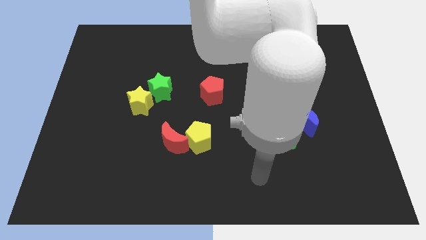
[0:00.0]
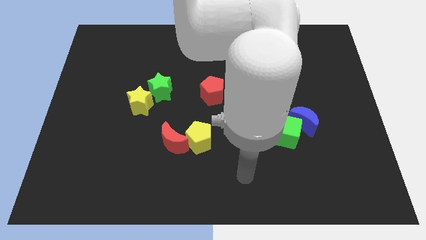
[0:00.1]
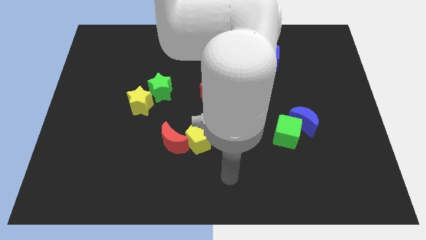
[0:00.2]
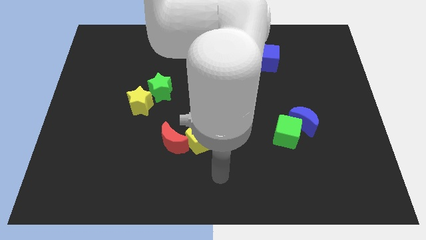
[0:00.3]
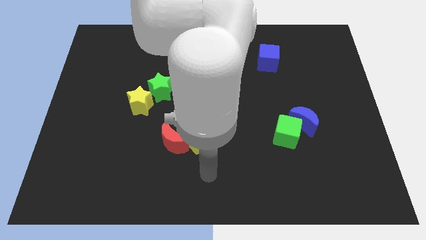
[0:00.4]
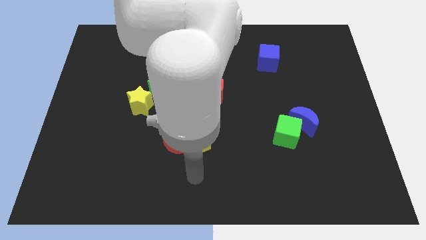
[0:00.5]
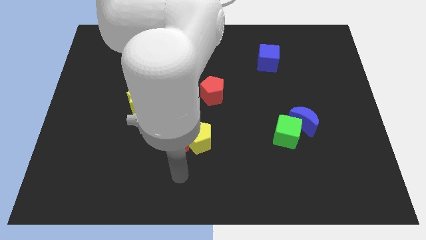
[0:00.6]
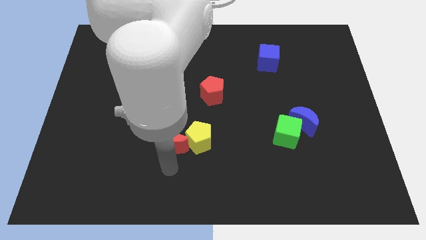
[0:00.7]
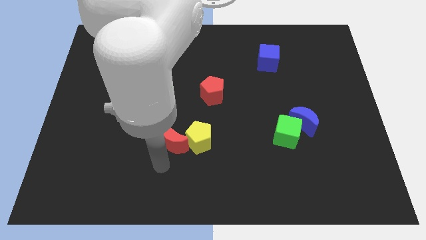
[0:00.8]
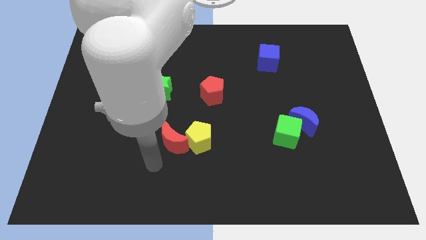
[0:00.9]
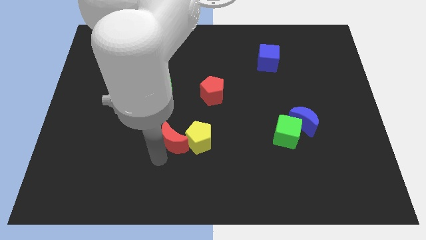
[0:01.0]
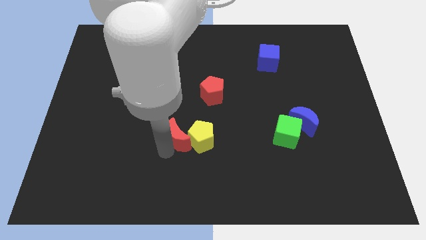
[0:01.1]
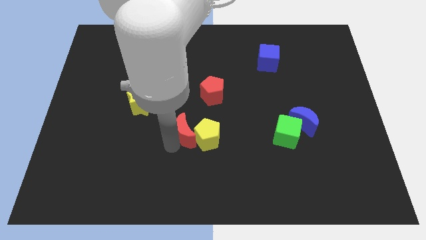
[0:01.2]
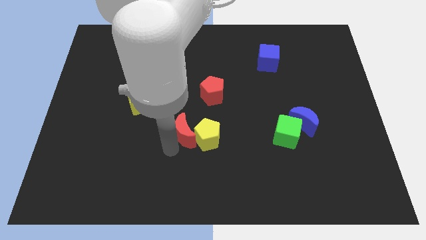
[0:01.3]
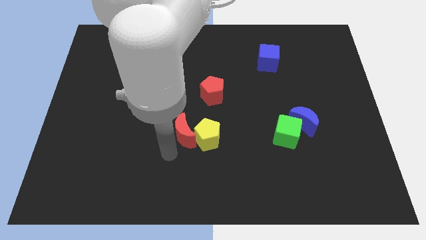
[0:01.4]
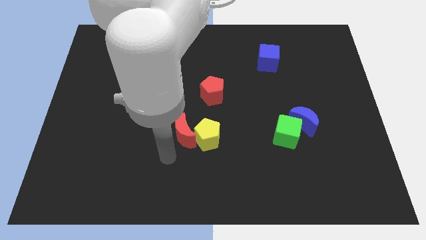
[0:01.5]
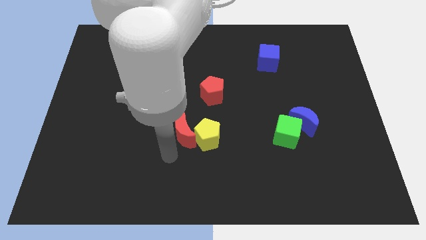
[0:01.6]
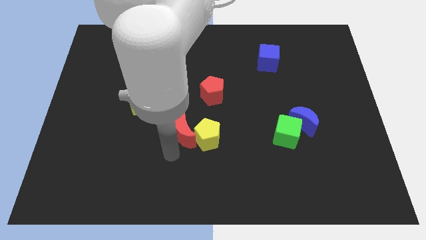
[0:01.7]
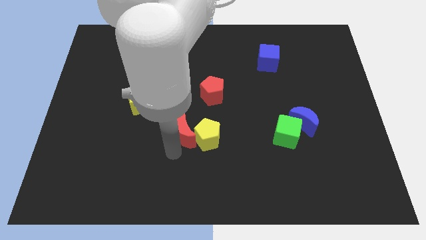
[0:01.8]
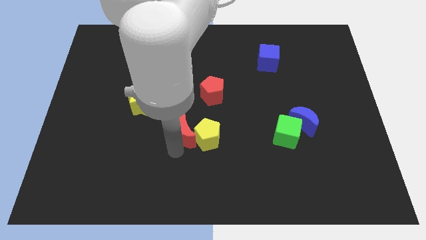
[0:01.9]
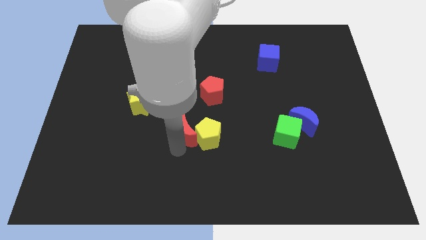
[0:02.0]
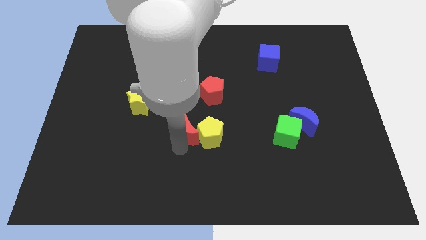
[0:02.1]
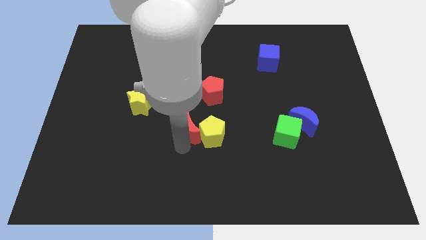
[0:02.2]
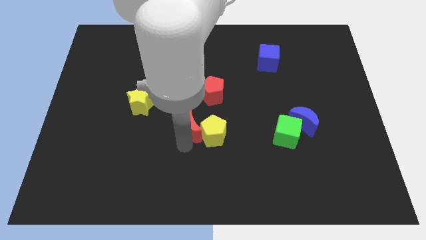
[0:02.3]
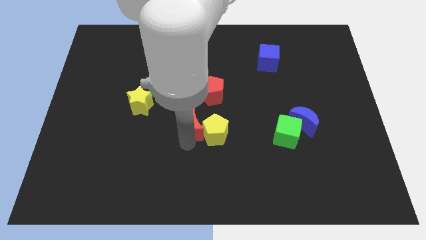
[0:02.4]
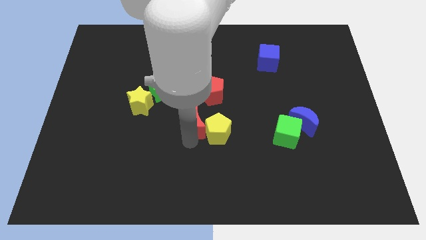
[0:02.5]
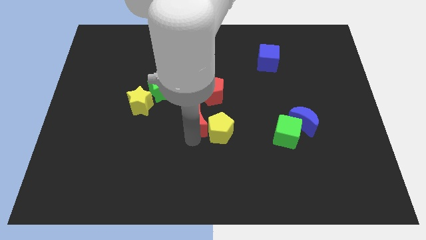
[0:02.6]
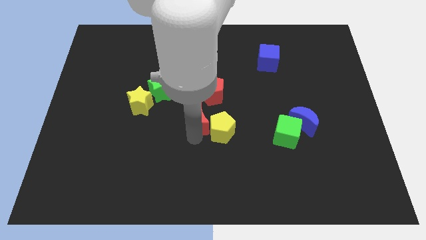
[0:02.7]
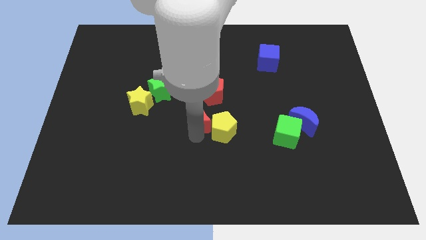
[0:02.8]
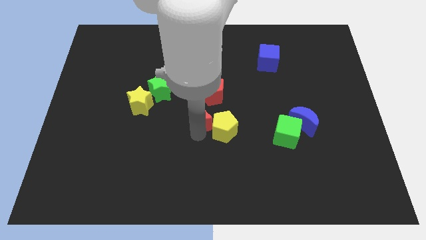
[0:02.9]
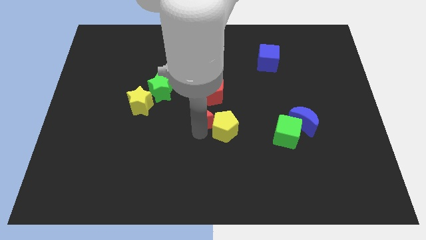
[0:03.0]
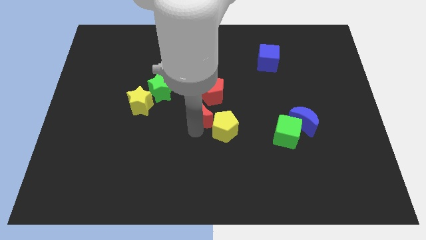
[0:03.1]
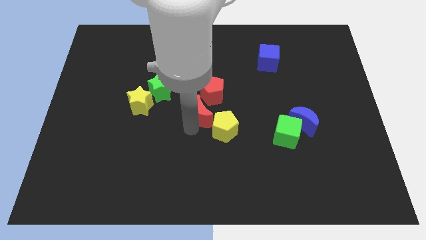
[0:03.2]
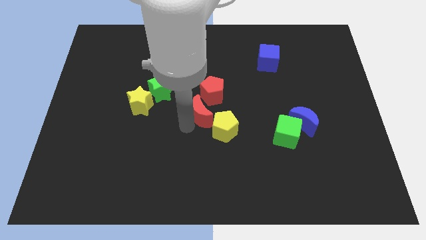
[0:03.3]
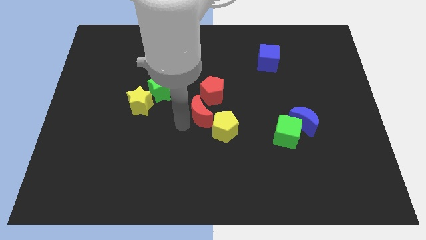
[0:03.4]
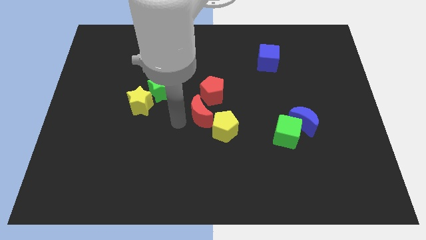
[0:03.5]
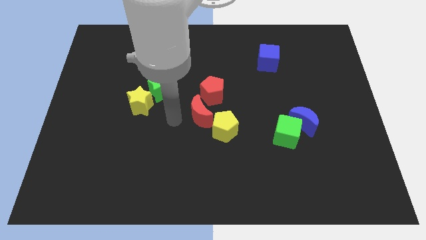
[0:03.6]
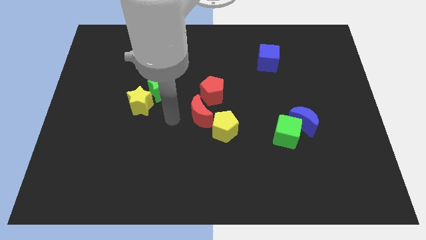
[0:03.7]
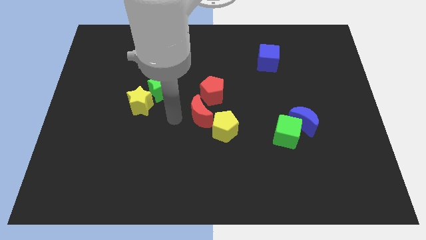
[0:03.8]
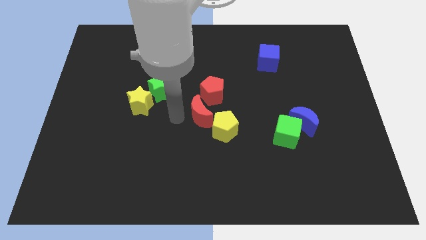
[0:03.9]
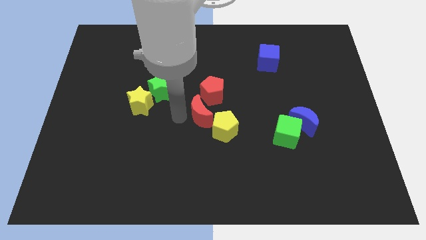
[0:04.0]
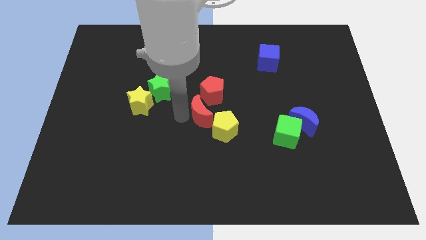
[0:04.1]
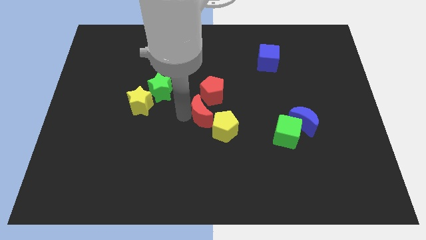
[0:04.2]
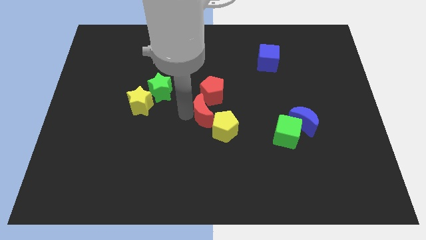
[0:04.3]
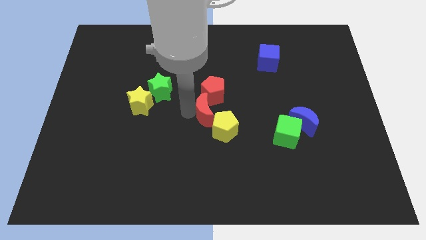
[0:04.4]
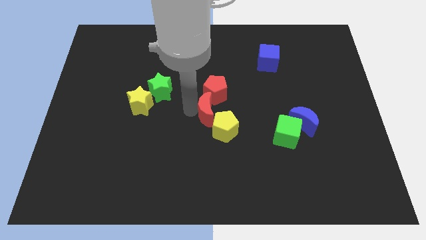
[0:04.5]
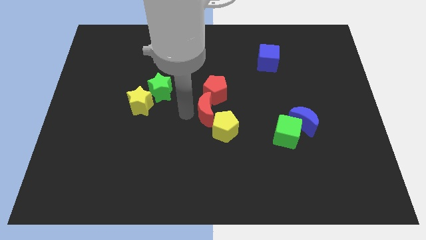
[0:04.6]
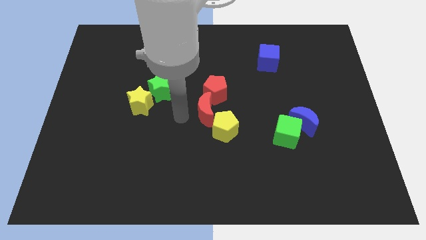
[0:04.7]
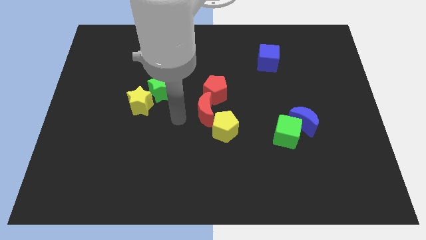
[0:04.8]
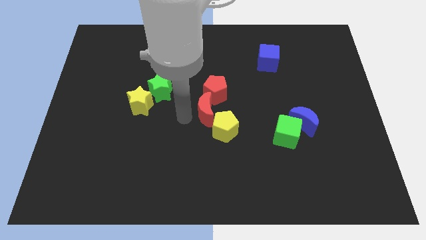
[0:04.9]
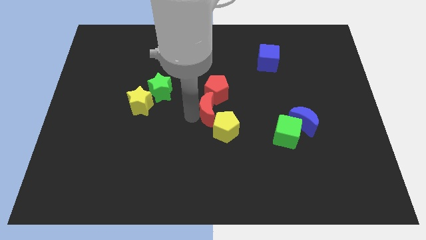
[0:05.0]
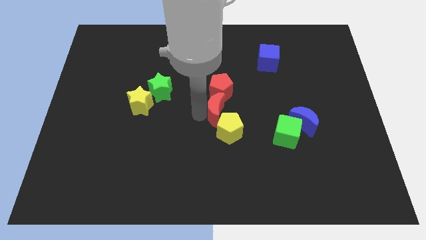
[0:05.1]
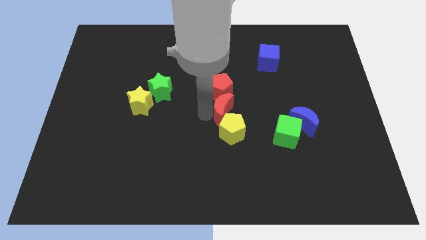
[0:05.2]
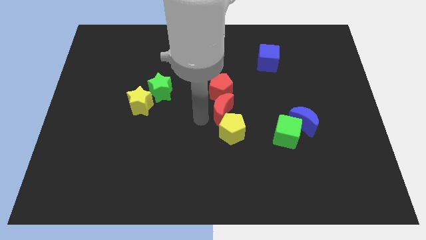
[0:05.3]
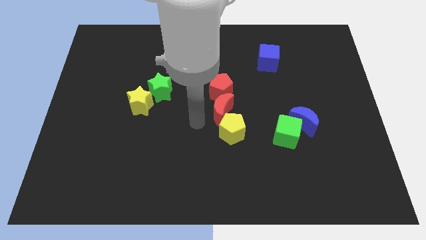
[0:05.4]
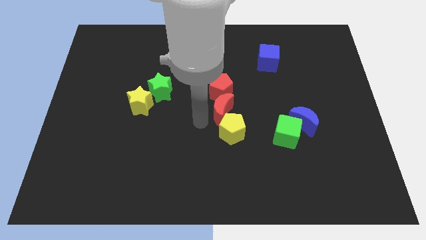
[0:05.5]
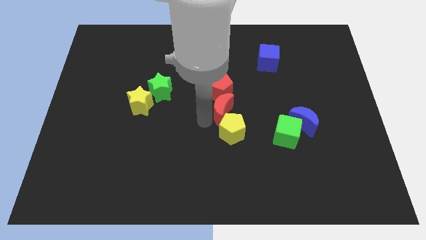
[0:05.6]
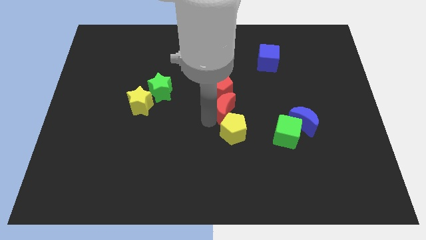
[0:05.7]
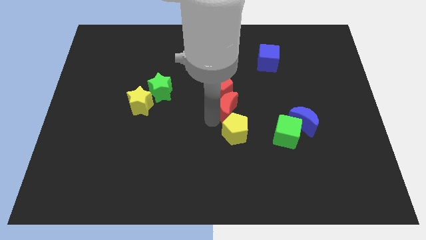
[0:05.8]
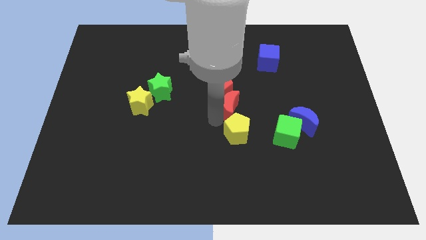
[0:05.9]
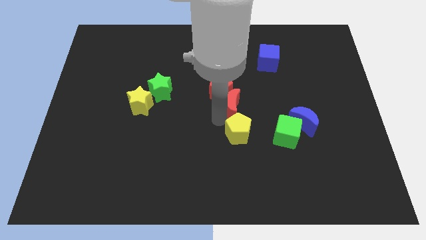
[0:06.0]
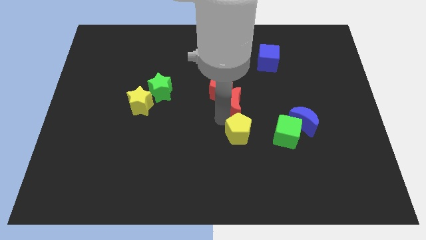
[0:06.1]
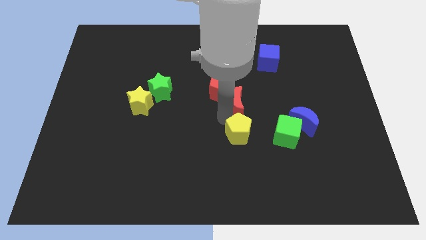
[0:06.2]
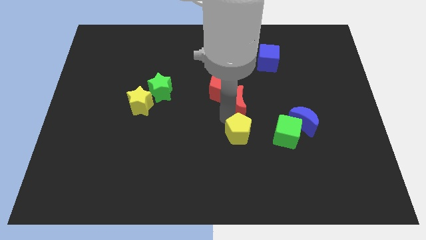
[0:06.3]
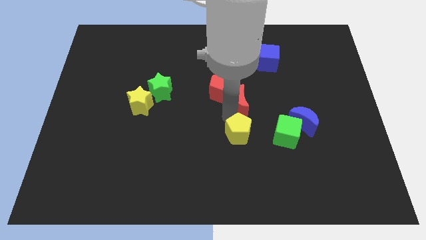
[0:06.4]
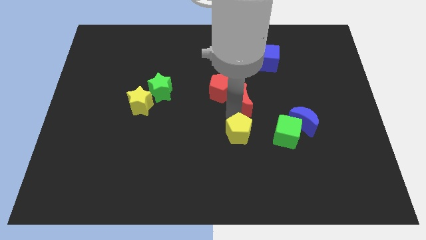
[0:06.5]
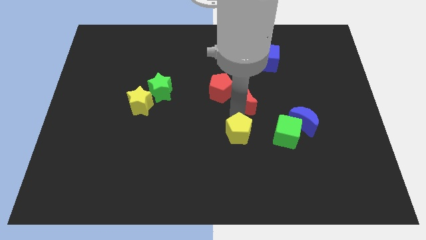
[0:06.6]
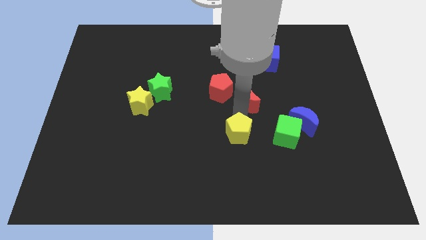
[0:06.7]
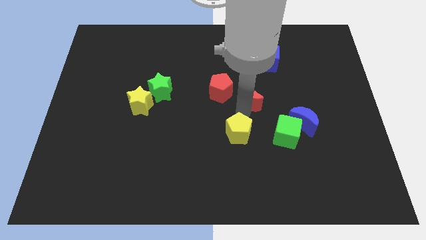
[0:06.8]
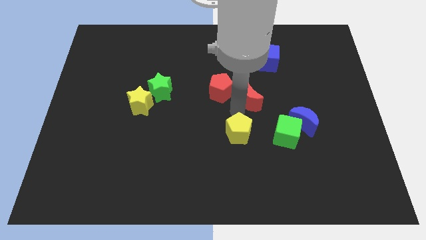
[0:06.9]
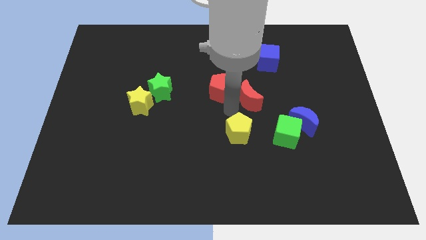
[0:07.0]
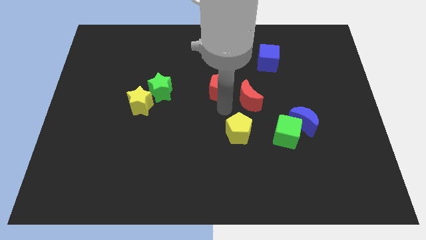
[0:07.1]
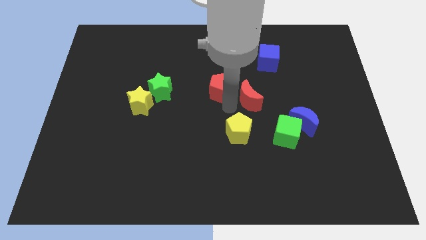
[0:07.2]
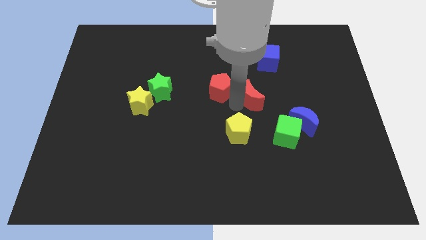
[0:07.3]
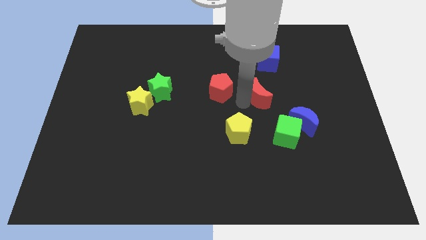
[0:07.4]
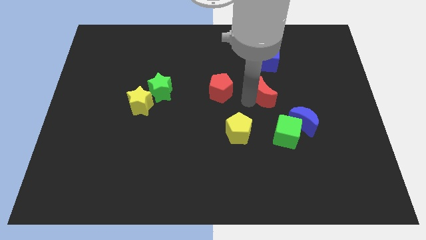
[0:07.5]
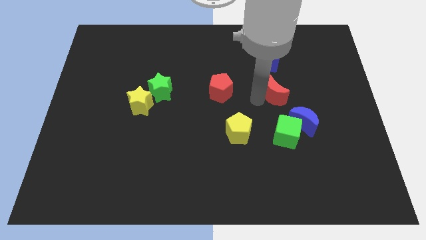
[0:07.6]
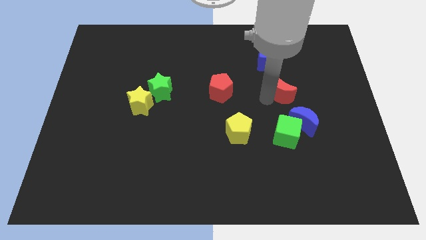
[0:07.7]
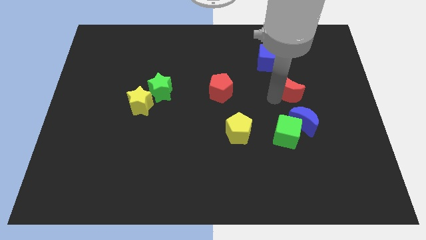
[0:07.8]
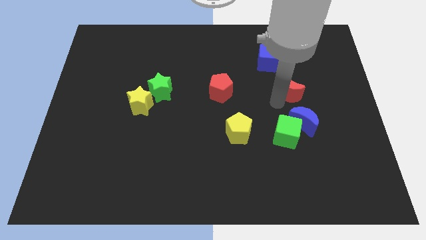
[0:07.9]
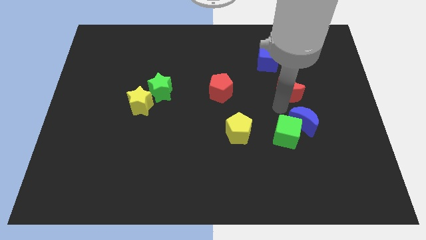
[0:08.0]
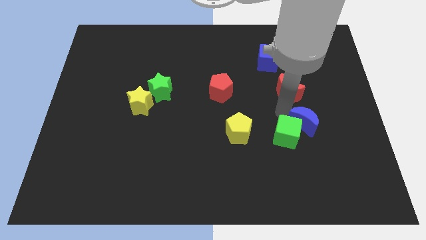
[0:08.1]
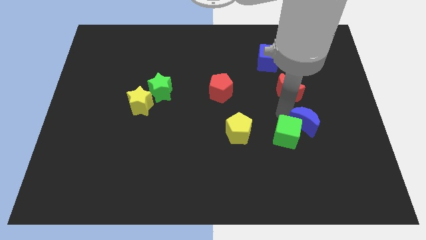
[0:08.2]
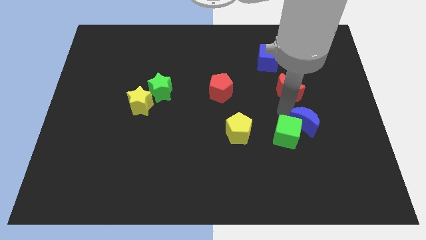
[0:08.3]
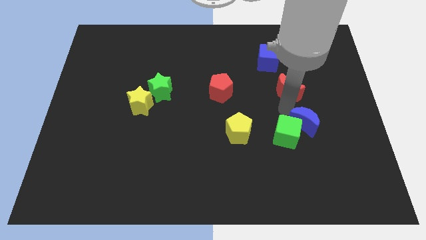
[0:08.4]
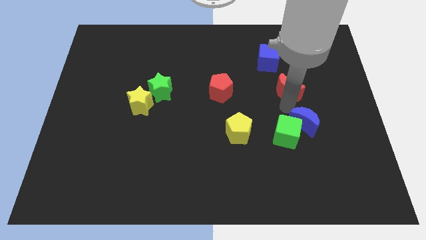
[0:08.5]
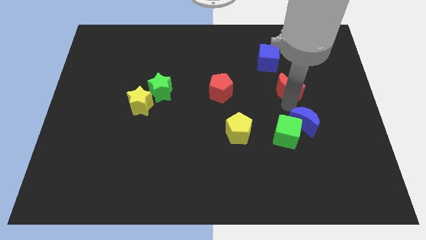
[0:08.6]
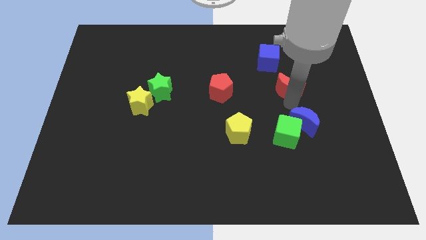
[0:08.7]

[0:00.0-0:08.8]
push the red moon to the bottom right of the blue cube
